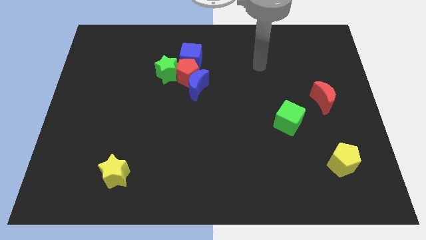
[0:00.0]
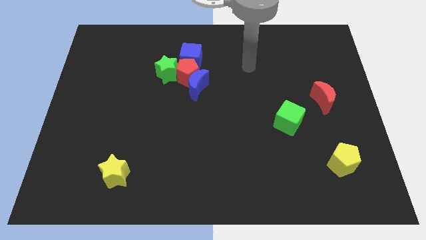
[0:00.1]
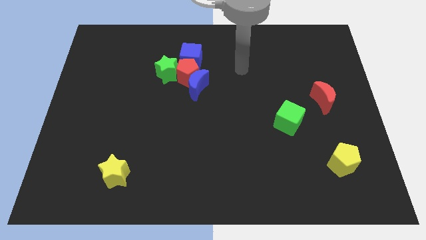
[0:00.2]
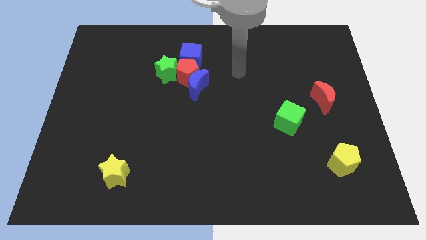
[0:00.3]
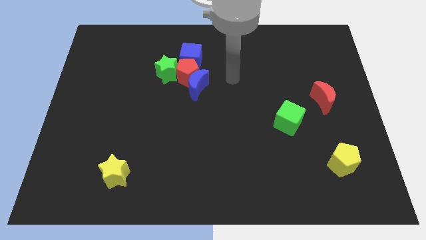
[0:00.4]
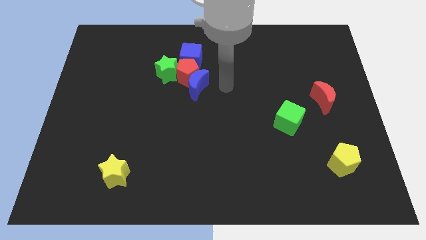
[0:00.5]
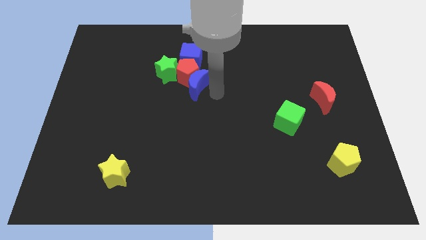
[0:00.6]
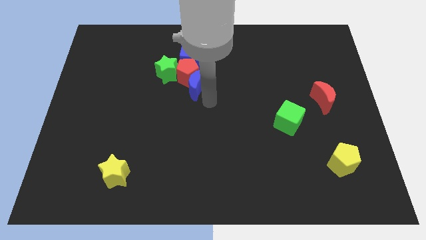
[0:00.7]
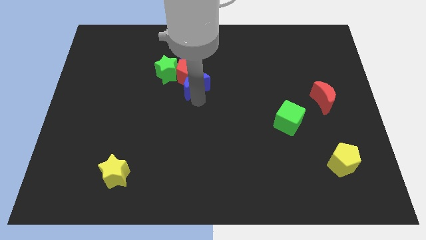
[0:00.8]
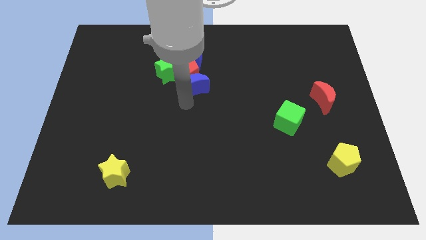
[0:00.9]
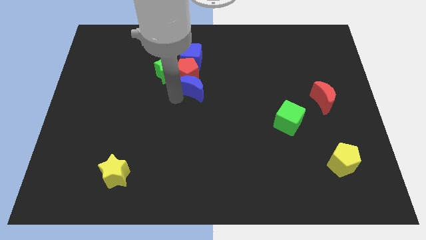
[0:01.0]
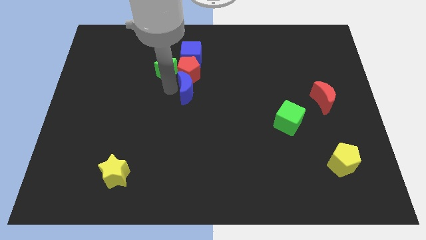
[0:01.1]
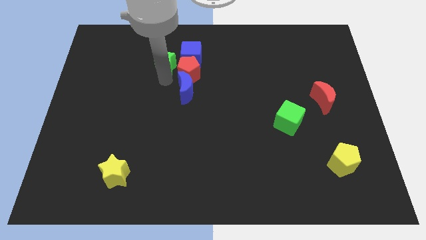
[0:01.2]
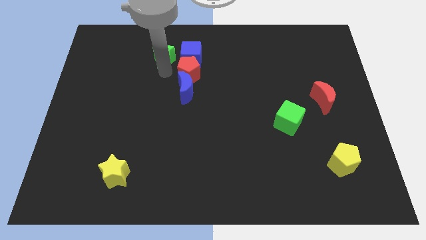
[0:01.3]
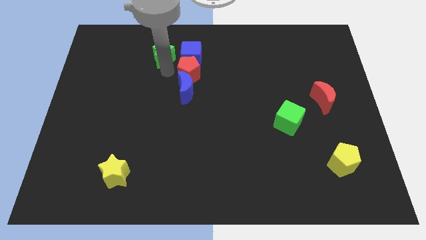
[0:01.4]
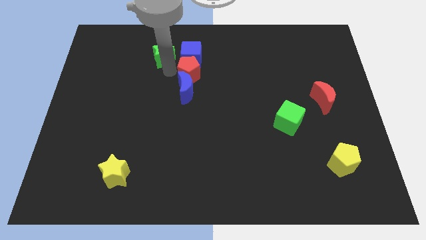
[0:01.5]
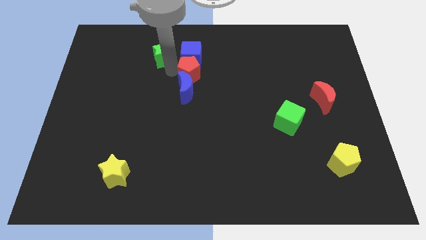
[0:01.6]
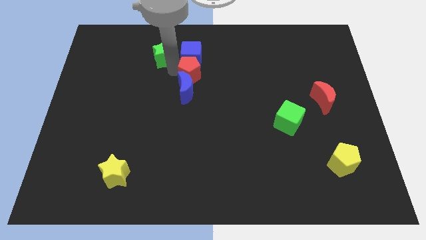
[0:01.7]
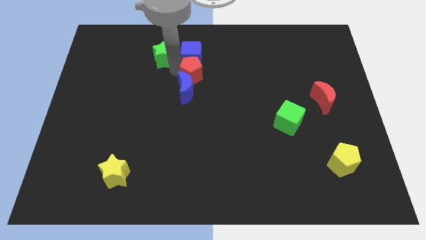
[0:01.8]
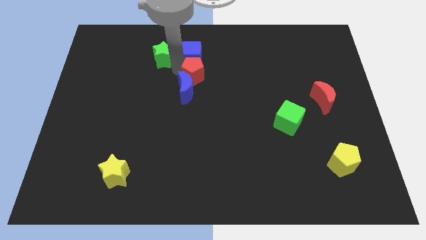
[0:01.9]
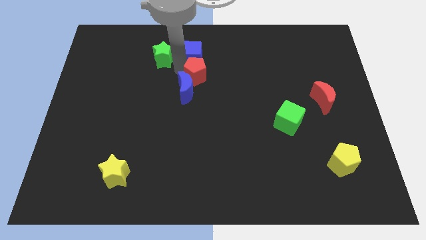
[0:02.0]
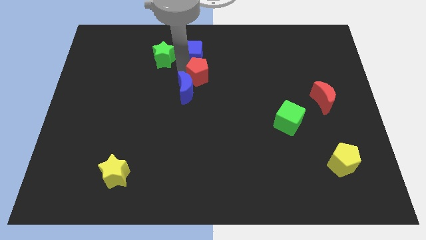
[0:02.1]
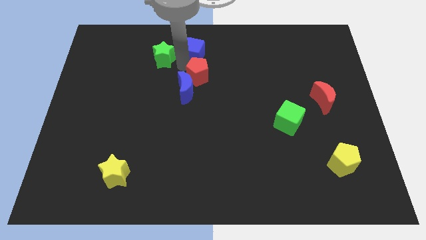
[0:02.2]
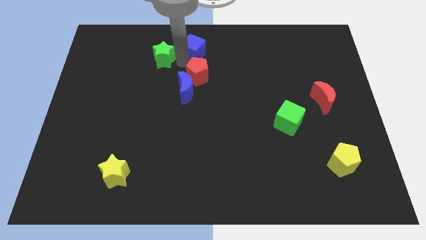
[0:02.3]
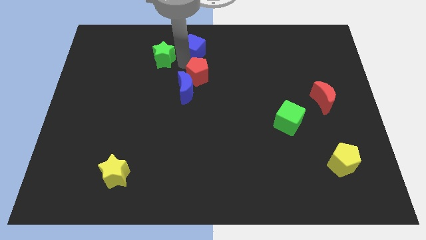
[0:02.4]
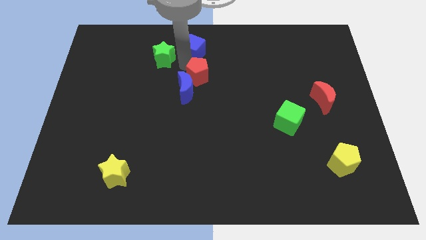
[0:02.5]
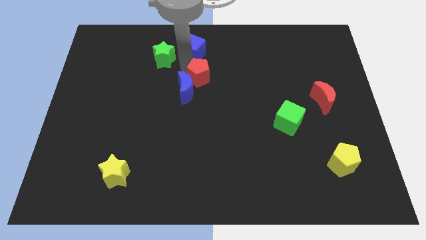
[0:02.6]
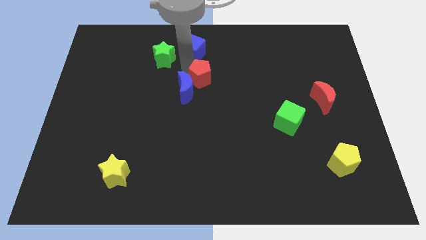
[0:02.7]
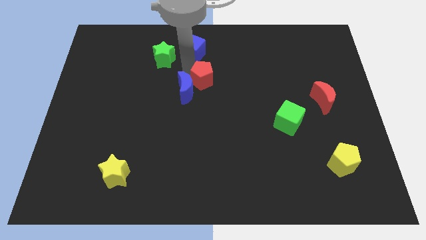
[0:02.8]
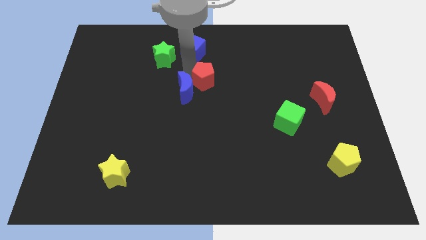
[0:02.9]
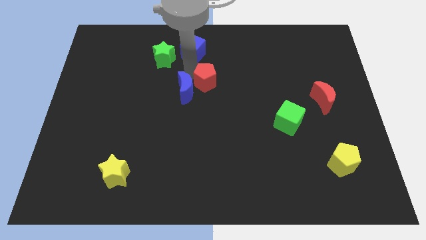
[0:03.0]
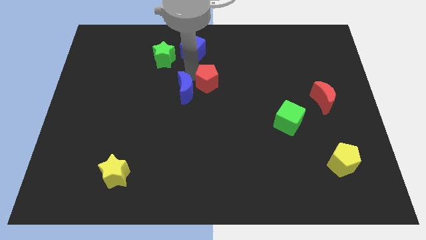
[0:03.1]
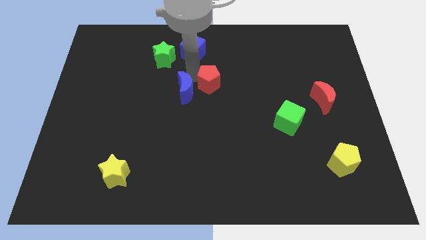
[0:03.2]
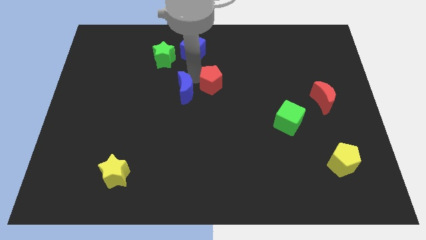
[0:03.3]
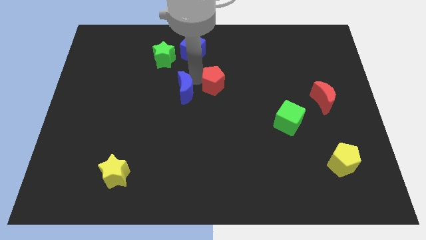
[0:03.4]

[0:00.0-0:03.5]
separate the red pentagon from the blue moon, green star, and blue cube

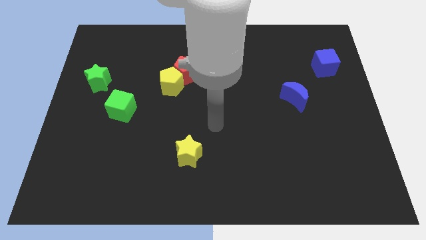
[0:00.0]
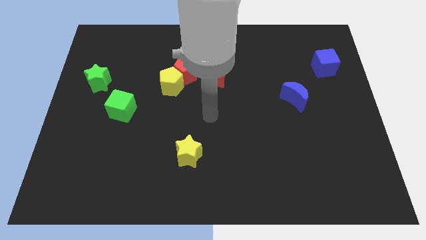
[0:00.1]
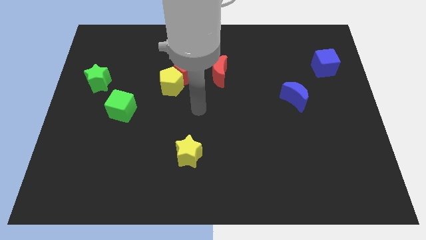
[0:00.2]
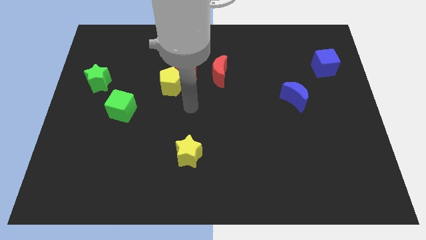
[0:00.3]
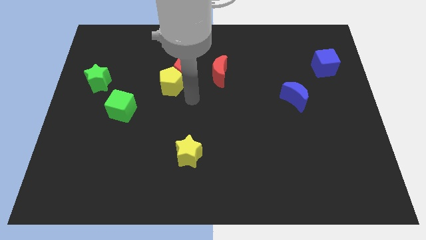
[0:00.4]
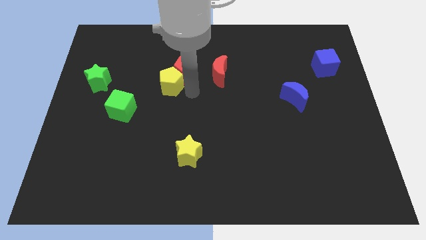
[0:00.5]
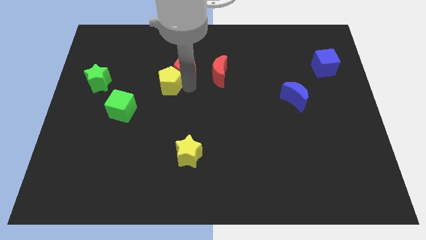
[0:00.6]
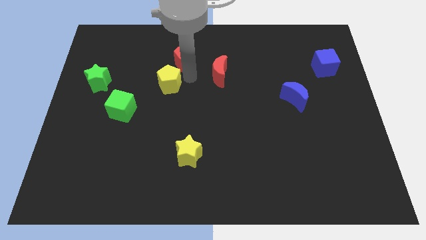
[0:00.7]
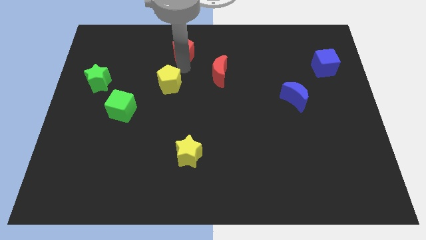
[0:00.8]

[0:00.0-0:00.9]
pull the yellow pentagon apart from the red pentagon

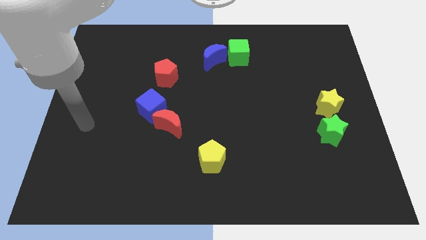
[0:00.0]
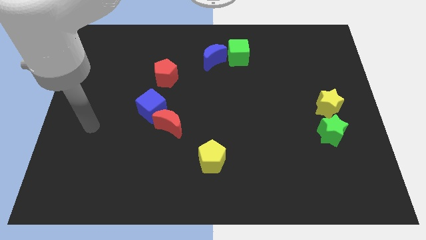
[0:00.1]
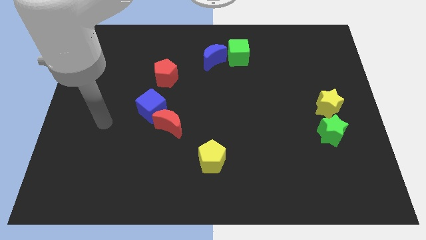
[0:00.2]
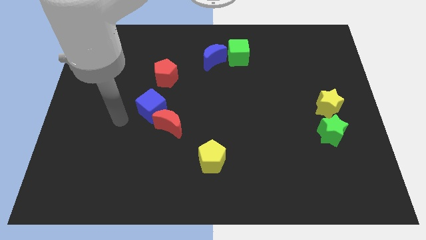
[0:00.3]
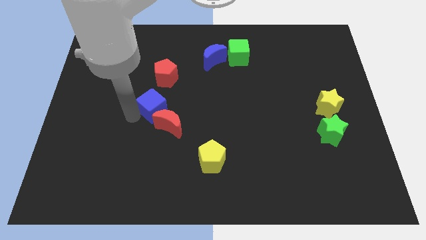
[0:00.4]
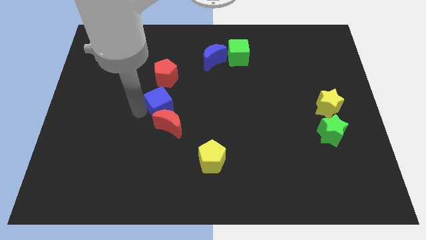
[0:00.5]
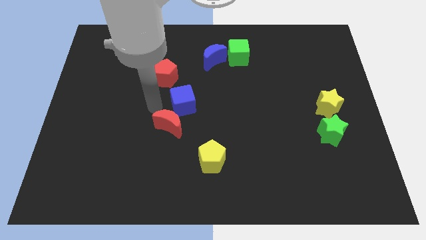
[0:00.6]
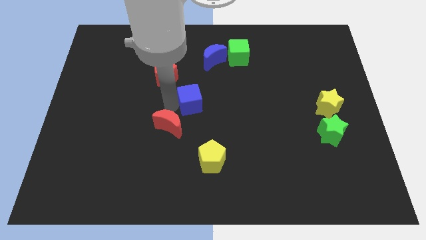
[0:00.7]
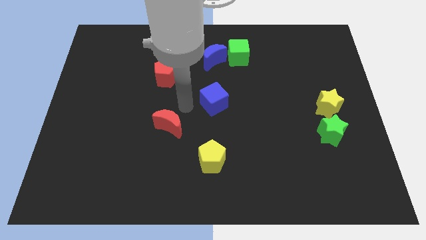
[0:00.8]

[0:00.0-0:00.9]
move the red moon away from the blue cube

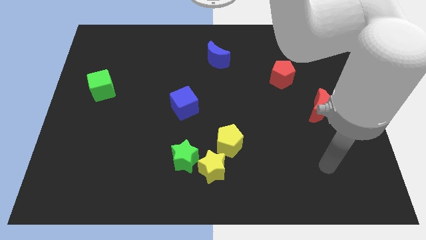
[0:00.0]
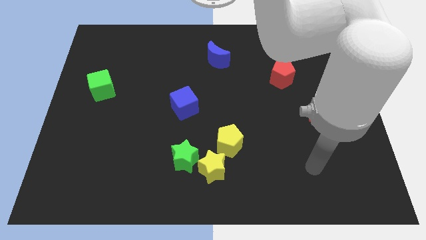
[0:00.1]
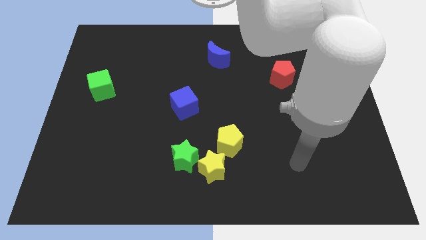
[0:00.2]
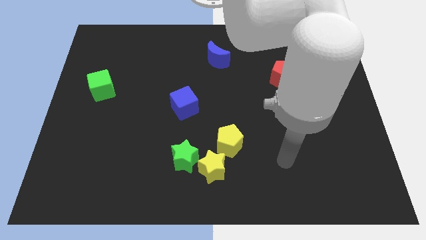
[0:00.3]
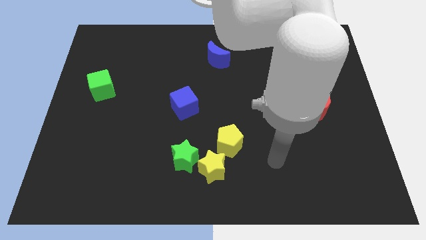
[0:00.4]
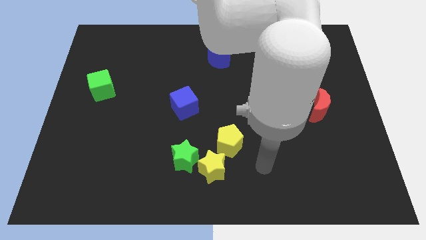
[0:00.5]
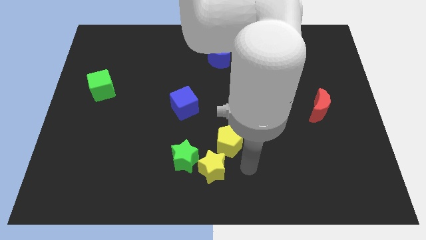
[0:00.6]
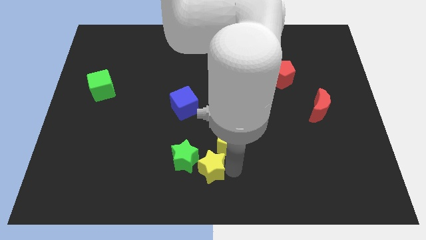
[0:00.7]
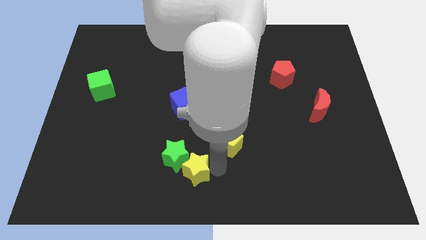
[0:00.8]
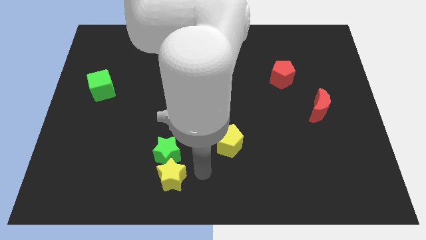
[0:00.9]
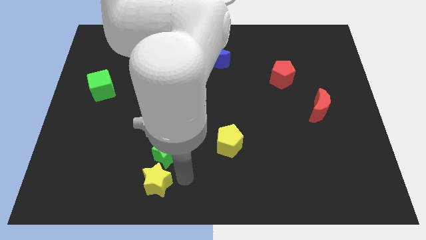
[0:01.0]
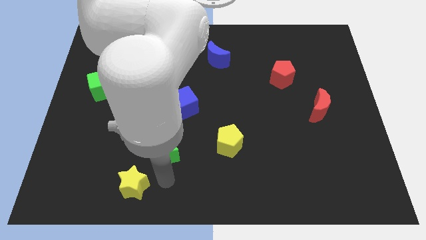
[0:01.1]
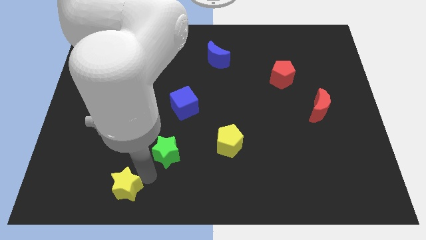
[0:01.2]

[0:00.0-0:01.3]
move the green star away from the yellow star

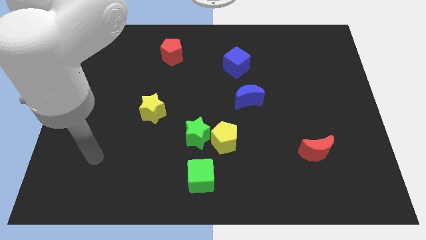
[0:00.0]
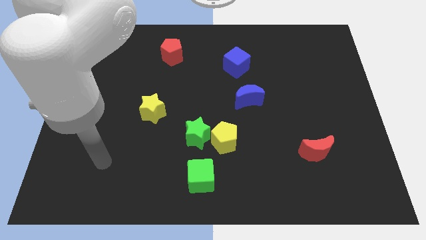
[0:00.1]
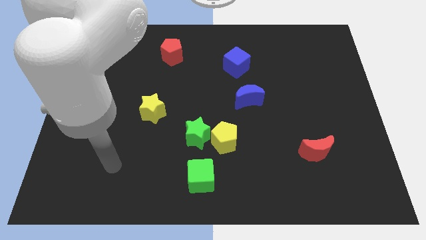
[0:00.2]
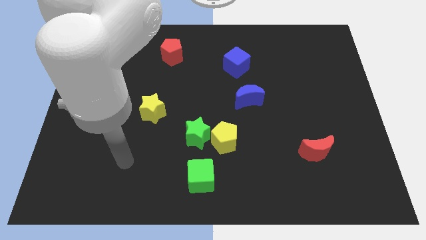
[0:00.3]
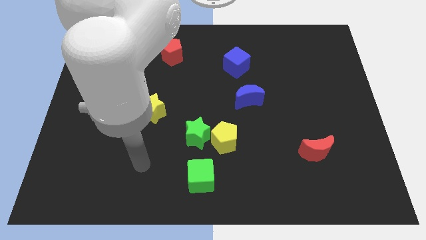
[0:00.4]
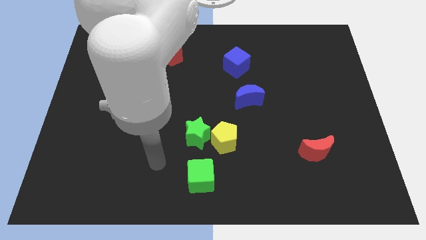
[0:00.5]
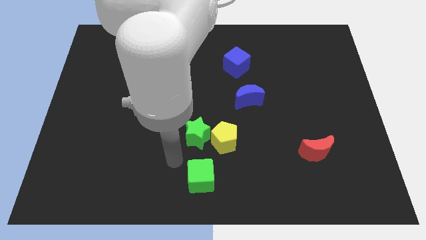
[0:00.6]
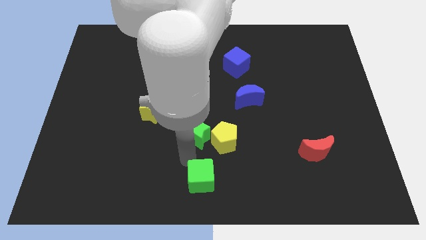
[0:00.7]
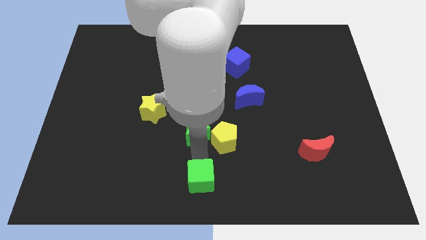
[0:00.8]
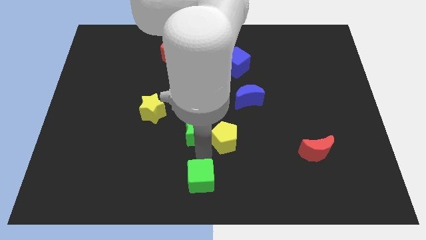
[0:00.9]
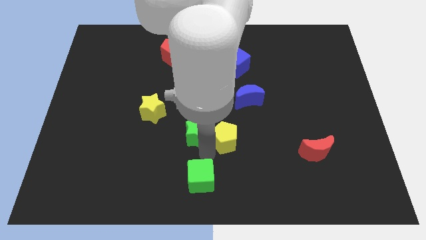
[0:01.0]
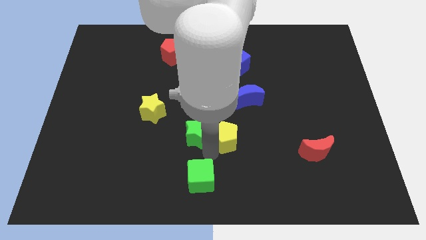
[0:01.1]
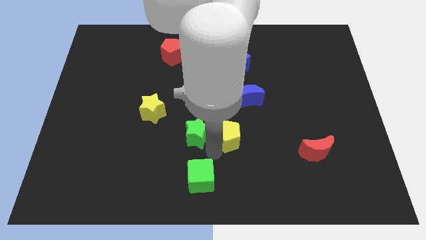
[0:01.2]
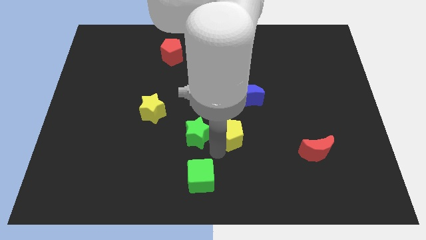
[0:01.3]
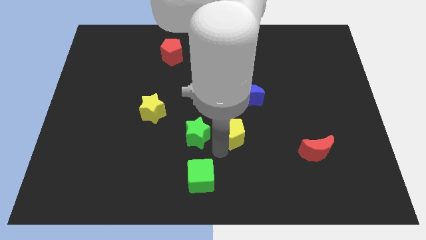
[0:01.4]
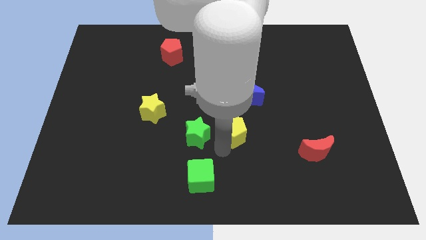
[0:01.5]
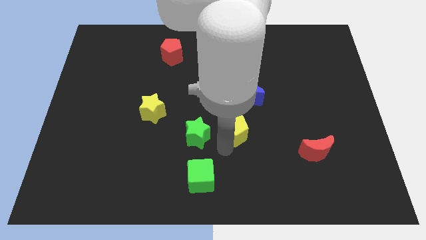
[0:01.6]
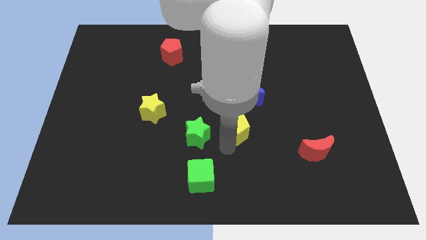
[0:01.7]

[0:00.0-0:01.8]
move the yellow pentagon away from the green star and green cube

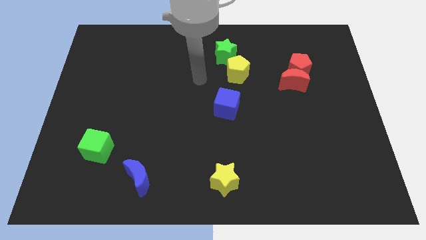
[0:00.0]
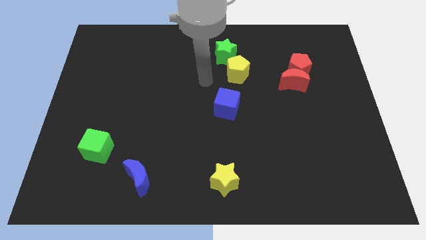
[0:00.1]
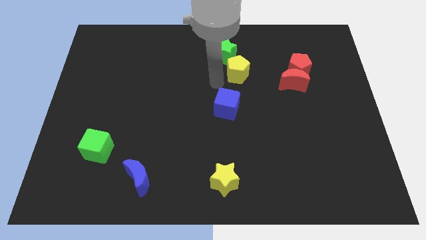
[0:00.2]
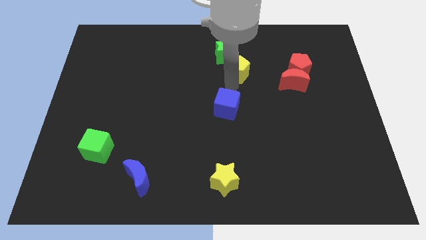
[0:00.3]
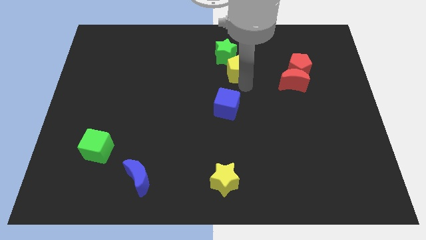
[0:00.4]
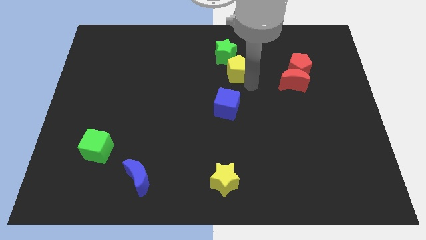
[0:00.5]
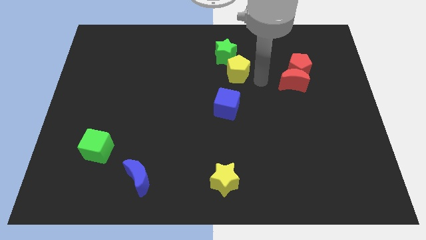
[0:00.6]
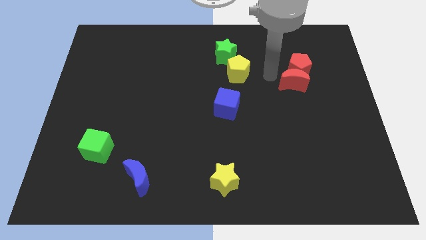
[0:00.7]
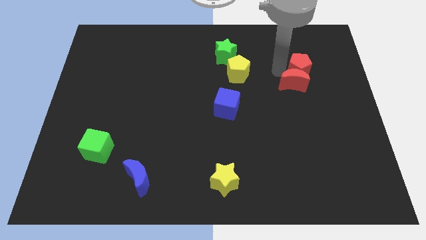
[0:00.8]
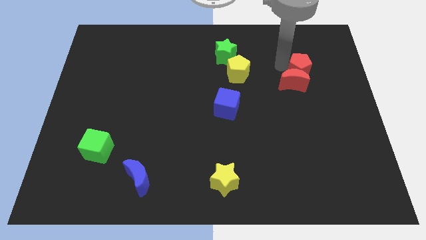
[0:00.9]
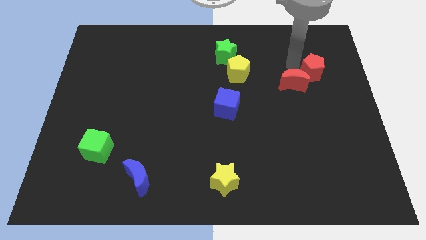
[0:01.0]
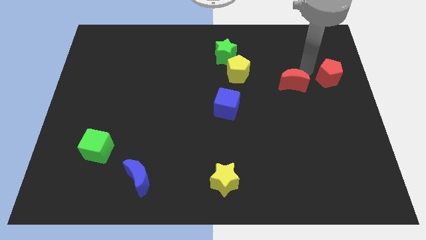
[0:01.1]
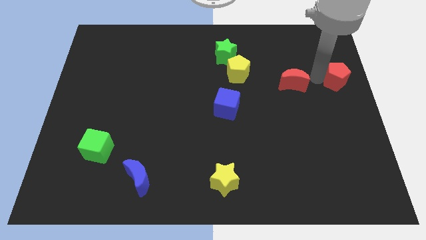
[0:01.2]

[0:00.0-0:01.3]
separate the red moon from the red pentagon
